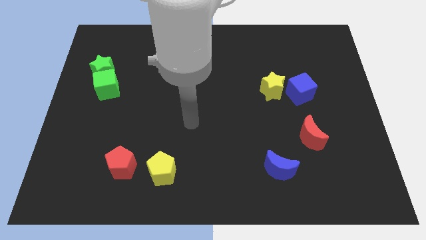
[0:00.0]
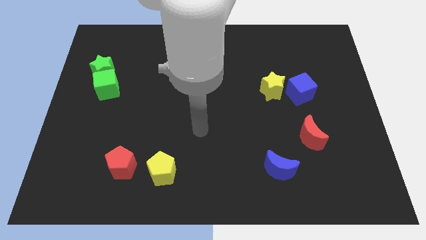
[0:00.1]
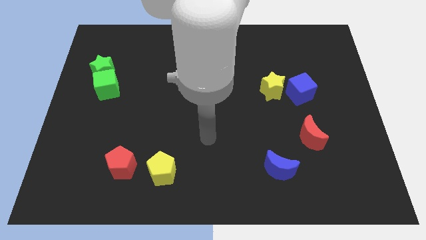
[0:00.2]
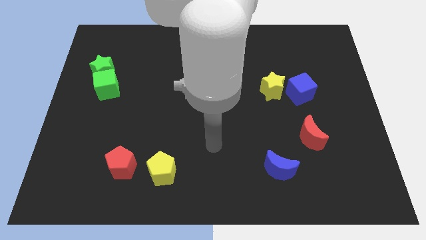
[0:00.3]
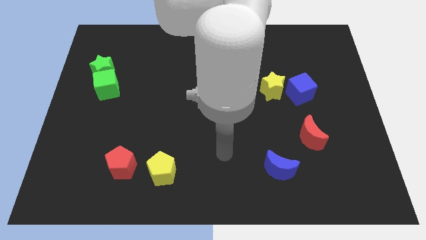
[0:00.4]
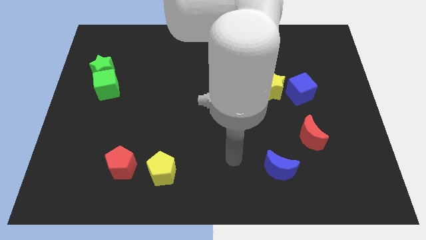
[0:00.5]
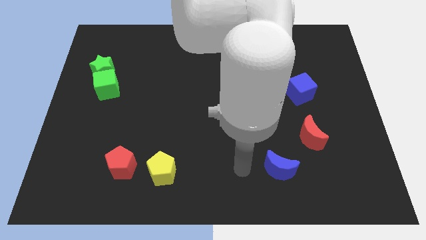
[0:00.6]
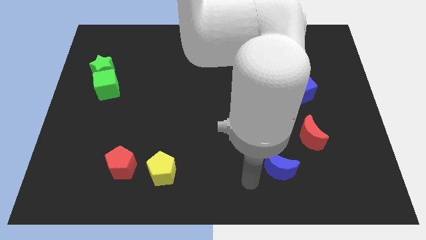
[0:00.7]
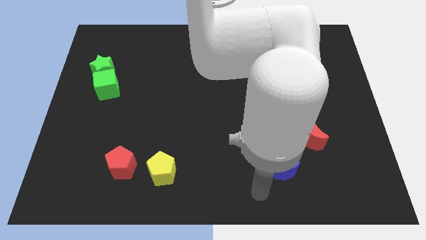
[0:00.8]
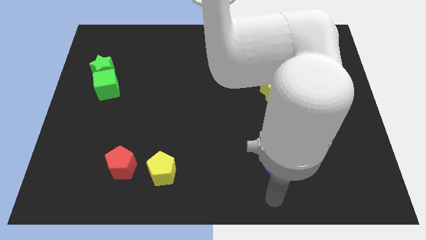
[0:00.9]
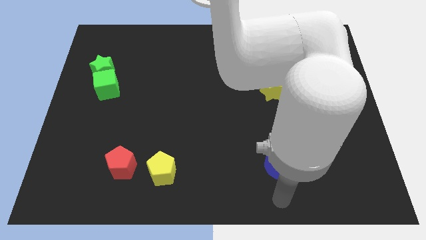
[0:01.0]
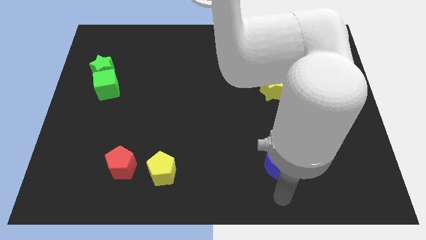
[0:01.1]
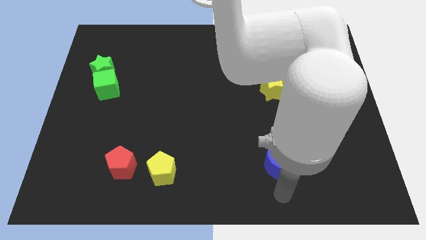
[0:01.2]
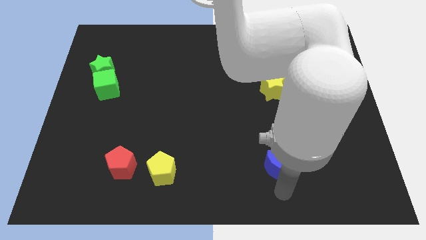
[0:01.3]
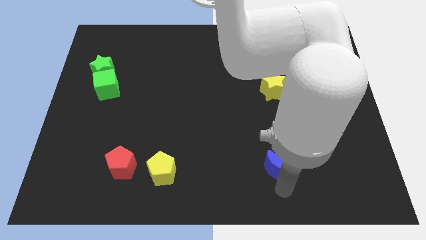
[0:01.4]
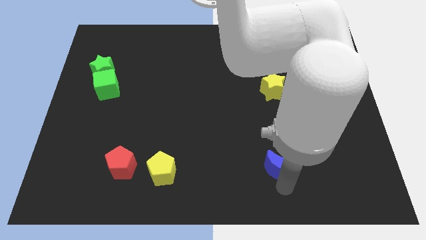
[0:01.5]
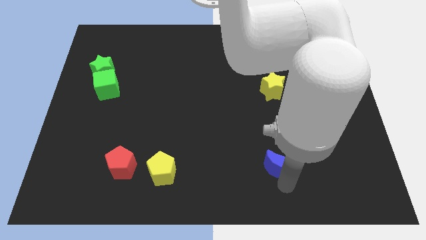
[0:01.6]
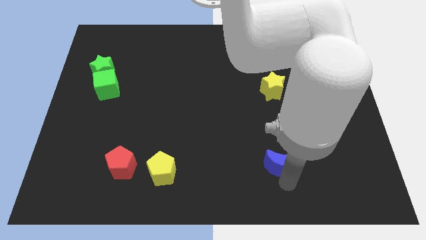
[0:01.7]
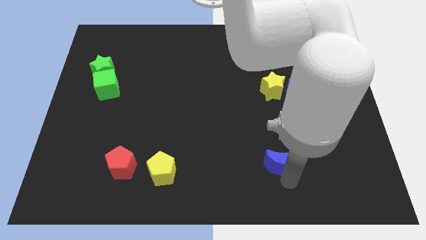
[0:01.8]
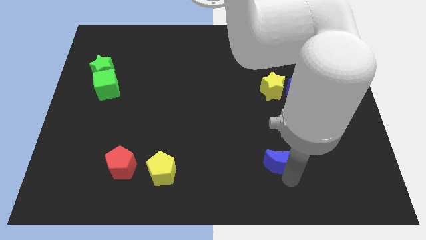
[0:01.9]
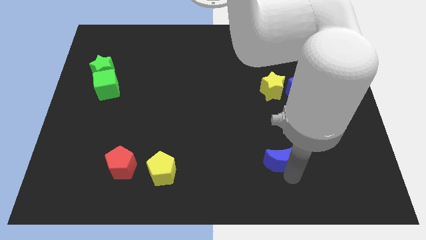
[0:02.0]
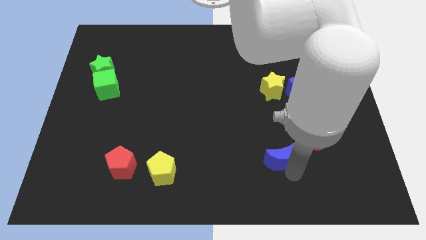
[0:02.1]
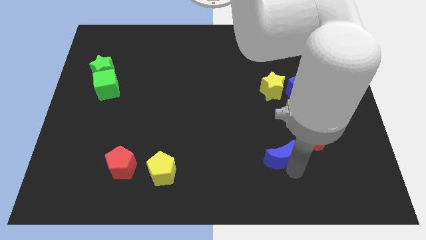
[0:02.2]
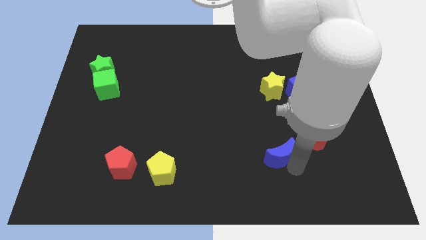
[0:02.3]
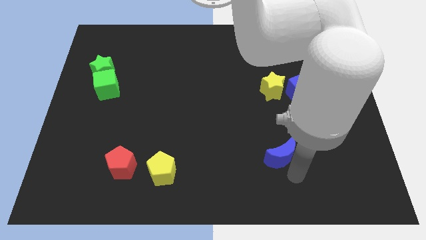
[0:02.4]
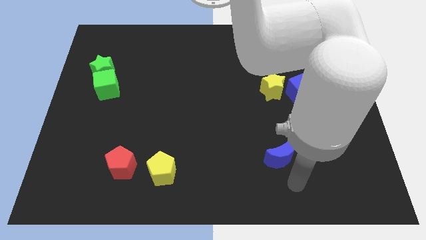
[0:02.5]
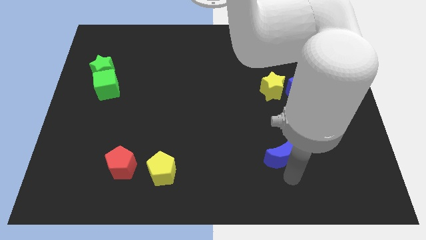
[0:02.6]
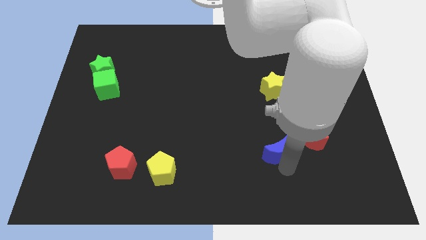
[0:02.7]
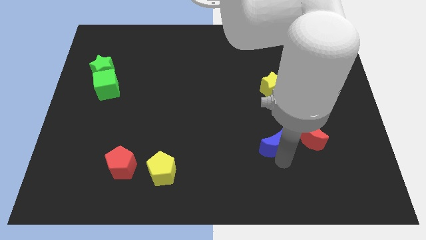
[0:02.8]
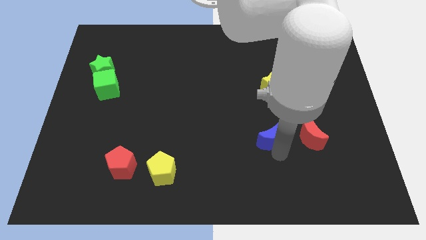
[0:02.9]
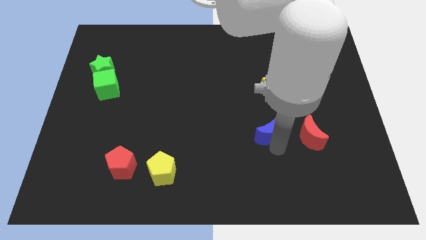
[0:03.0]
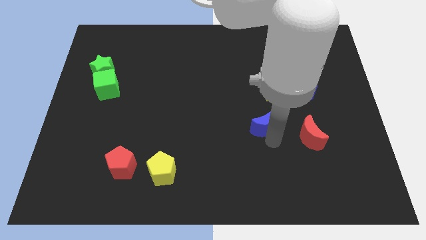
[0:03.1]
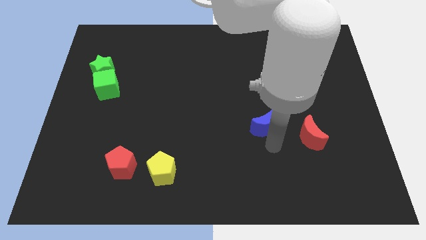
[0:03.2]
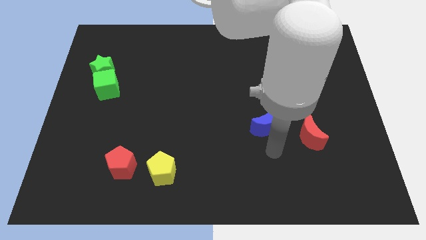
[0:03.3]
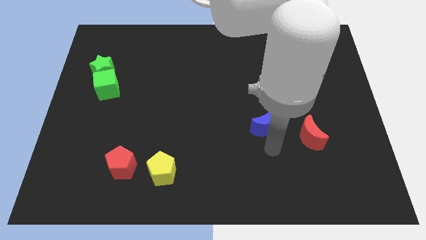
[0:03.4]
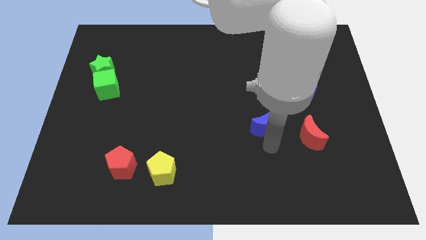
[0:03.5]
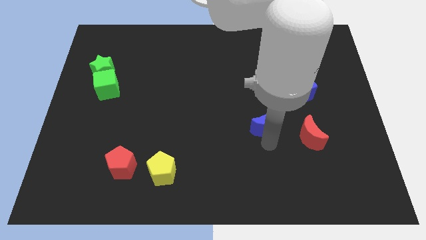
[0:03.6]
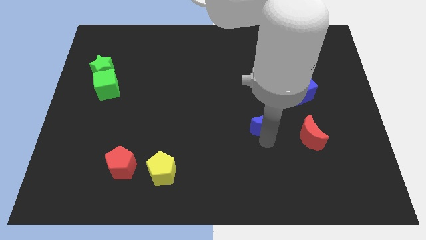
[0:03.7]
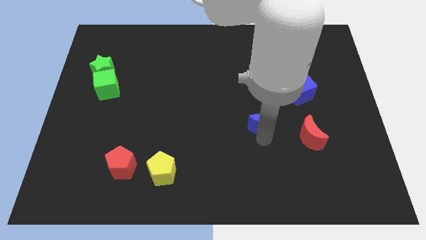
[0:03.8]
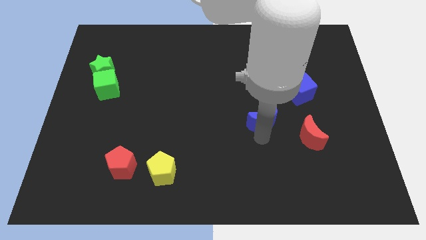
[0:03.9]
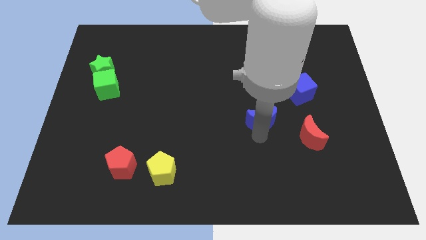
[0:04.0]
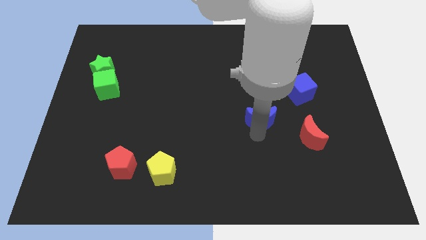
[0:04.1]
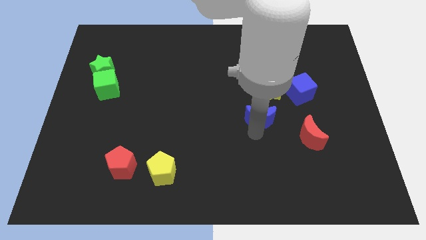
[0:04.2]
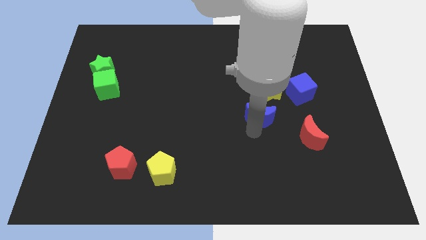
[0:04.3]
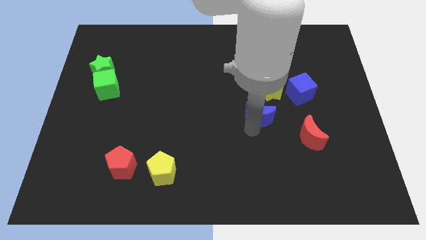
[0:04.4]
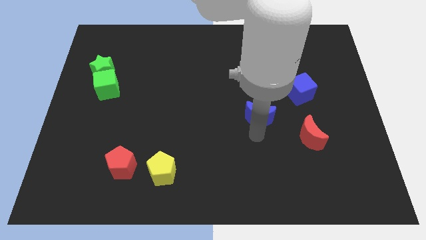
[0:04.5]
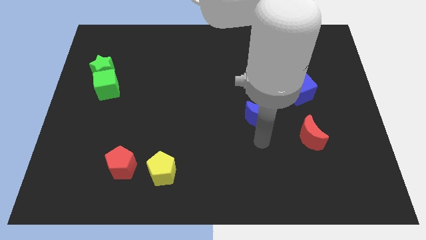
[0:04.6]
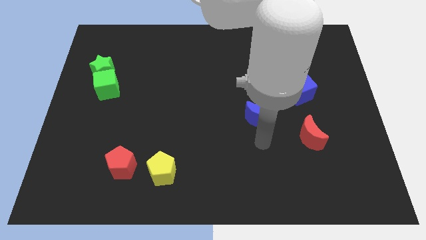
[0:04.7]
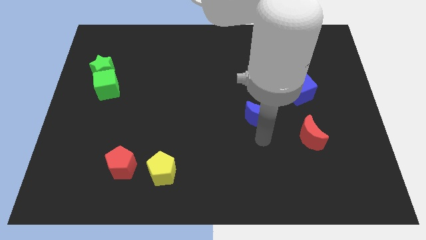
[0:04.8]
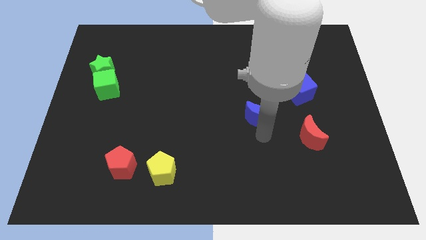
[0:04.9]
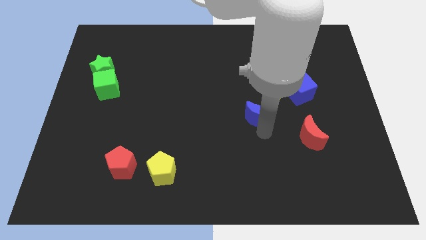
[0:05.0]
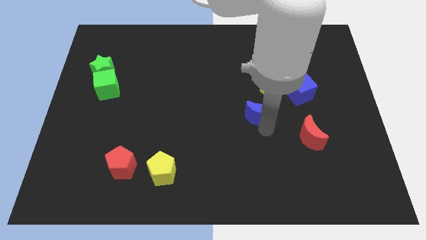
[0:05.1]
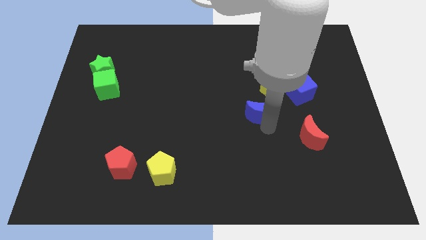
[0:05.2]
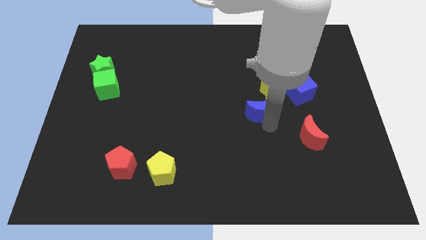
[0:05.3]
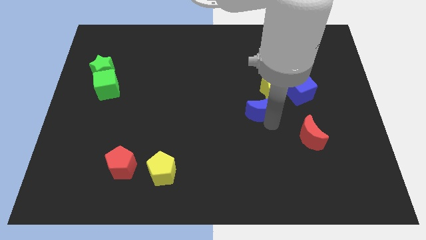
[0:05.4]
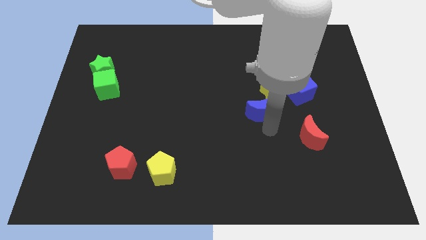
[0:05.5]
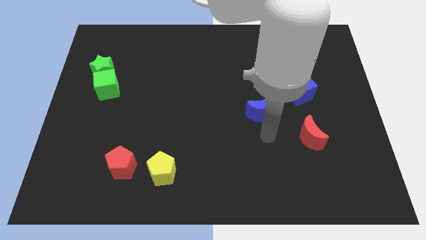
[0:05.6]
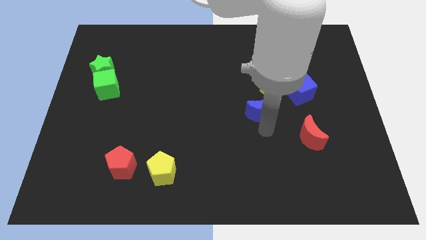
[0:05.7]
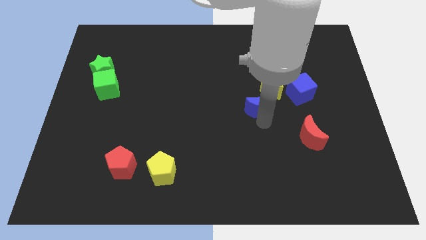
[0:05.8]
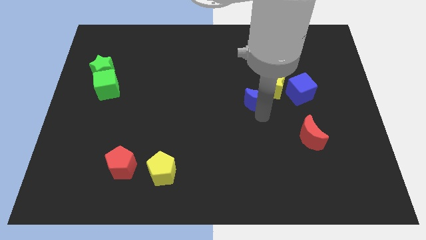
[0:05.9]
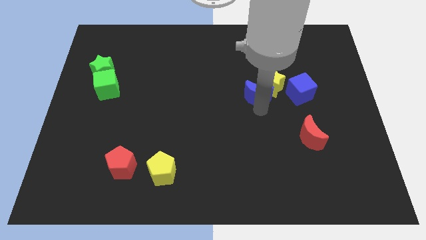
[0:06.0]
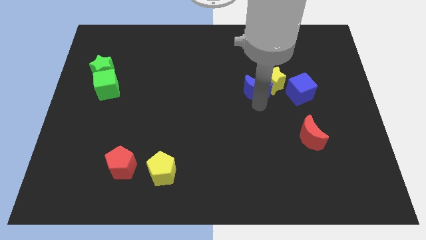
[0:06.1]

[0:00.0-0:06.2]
push the blue moon upwards

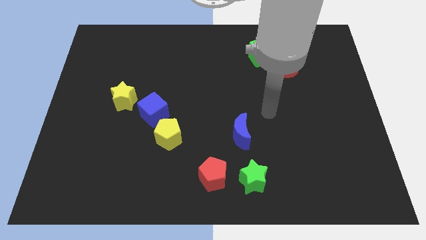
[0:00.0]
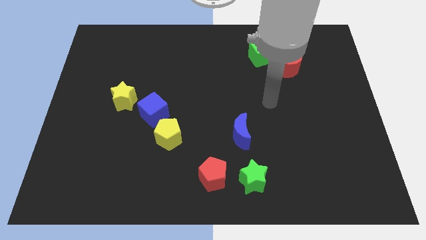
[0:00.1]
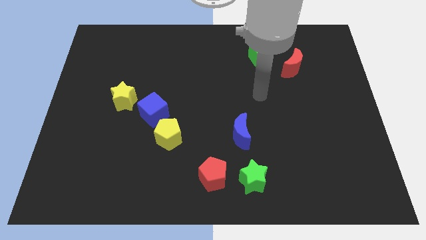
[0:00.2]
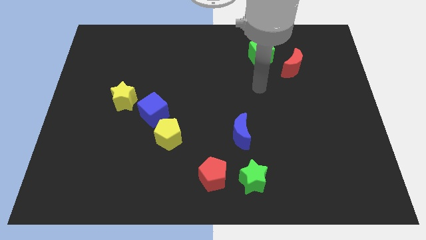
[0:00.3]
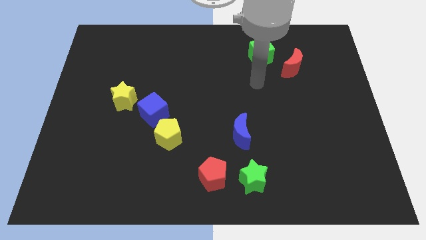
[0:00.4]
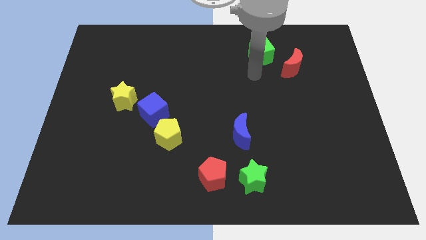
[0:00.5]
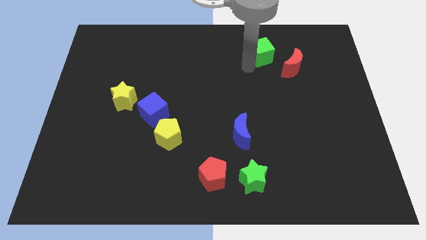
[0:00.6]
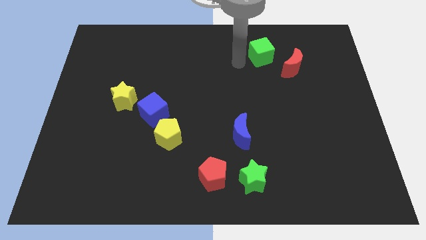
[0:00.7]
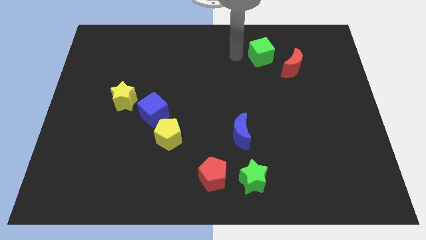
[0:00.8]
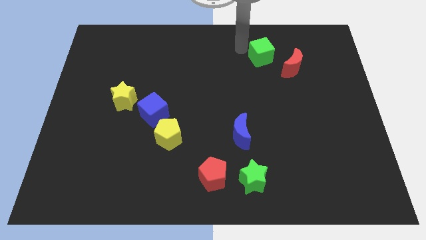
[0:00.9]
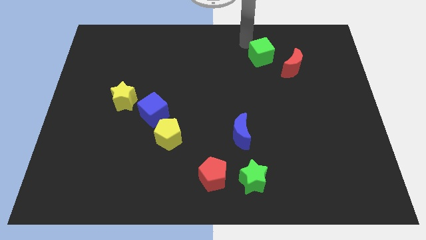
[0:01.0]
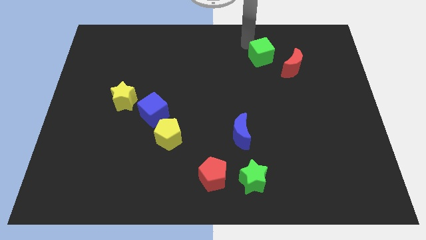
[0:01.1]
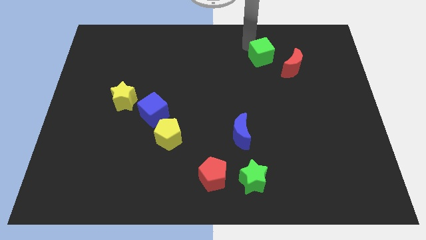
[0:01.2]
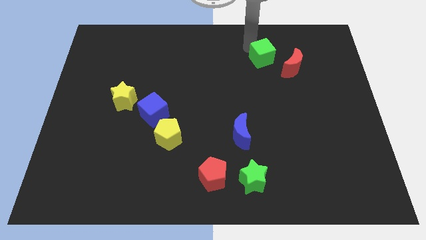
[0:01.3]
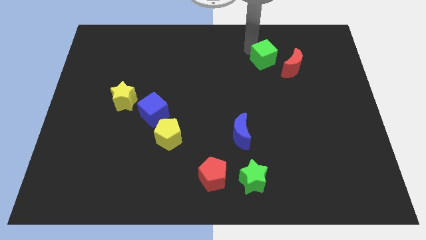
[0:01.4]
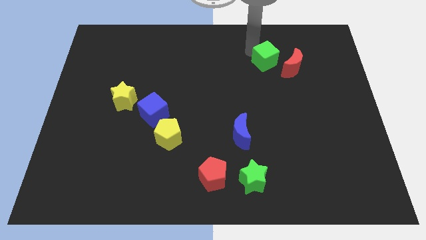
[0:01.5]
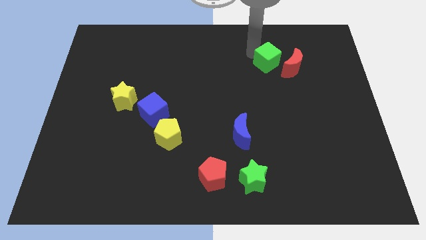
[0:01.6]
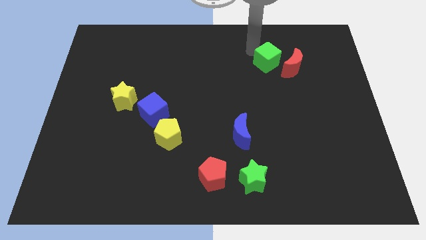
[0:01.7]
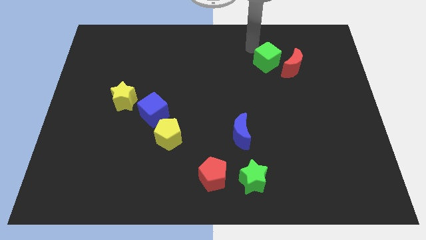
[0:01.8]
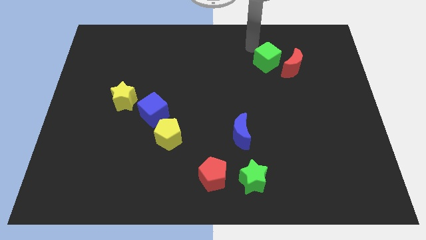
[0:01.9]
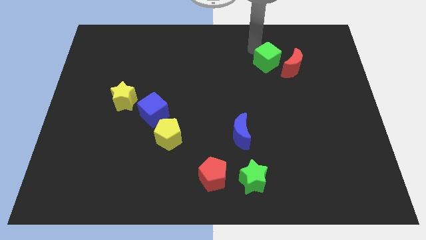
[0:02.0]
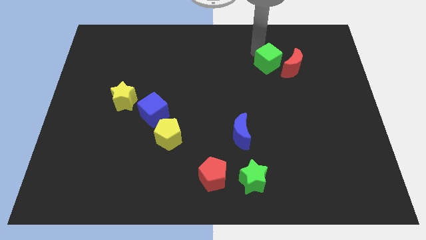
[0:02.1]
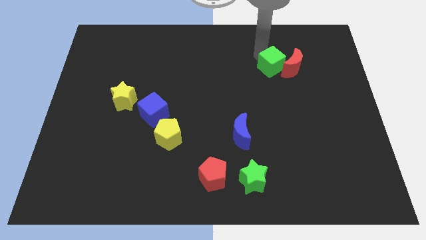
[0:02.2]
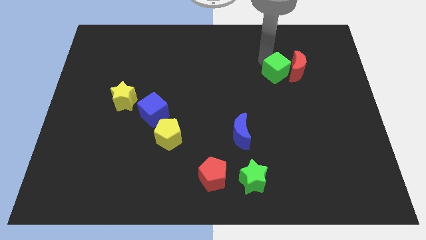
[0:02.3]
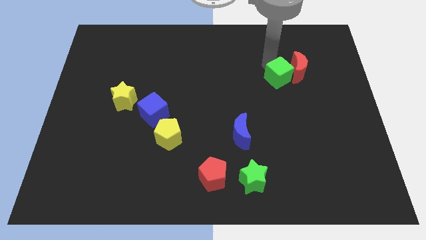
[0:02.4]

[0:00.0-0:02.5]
slightly push the green cube diagonally down and to the right
